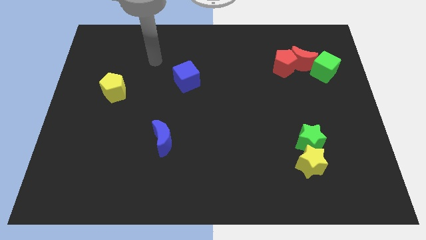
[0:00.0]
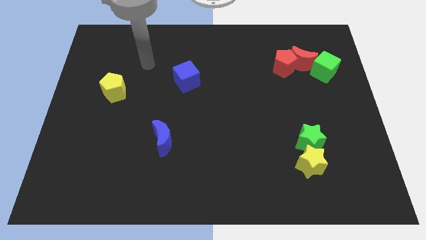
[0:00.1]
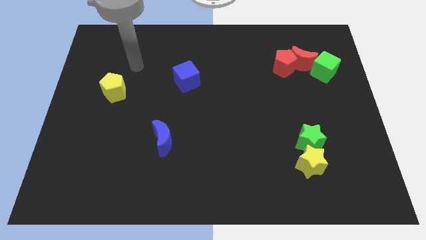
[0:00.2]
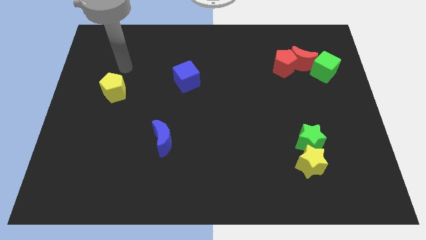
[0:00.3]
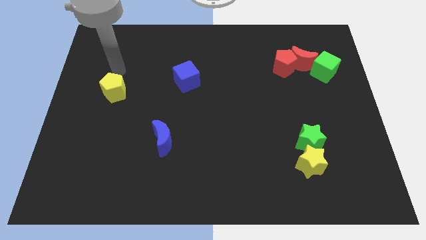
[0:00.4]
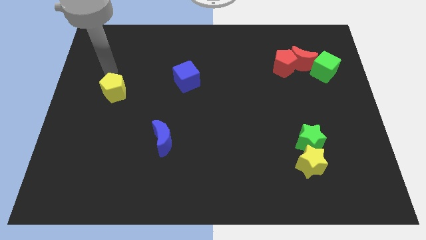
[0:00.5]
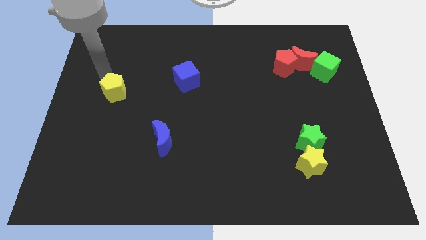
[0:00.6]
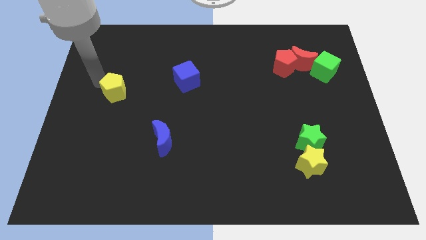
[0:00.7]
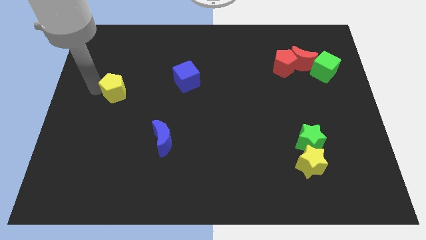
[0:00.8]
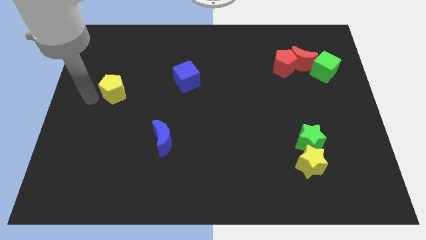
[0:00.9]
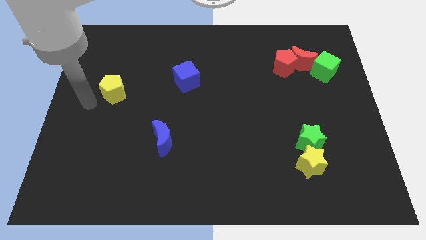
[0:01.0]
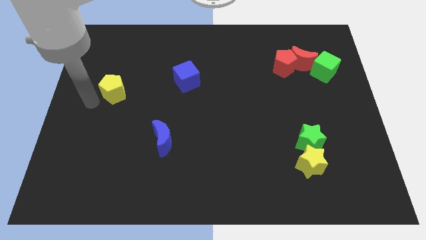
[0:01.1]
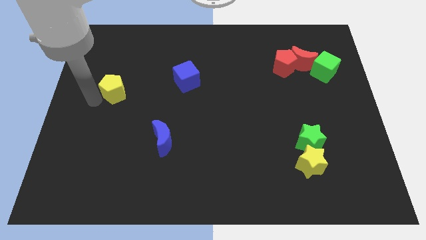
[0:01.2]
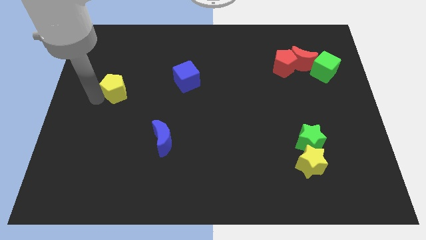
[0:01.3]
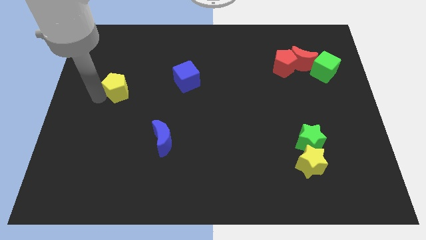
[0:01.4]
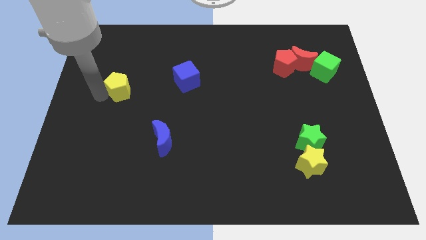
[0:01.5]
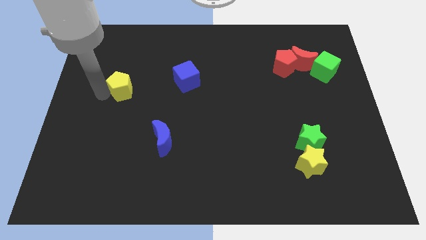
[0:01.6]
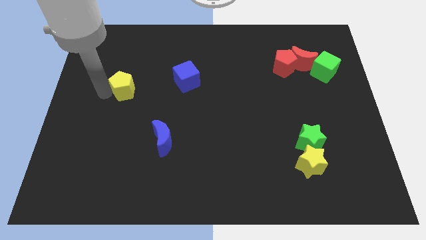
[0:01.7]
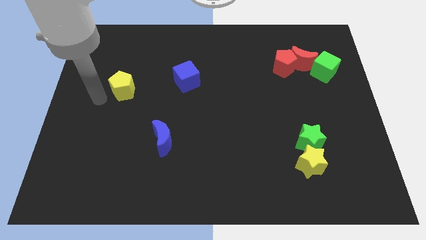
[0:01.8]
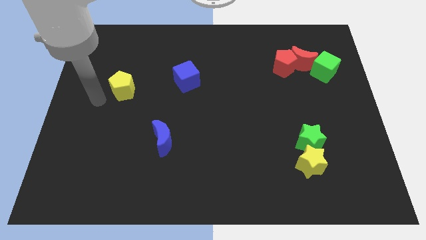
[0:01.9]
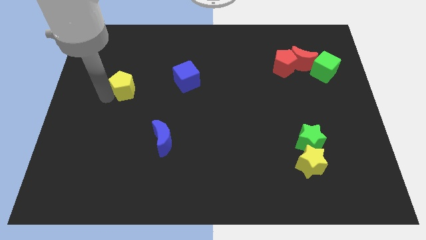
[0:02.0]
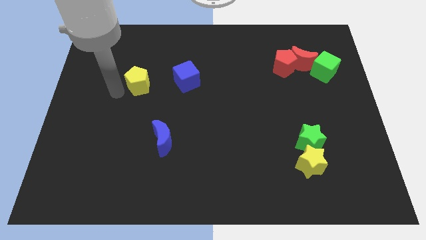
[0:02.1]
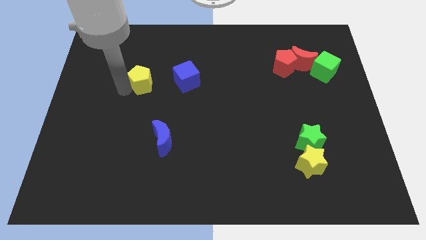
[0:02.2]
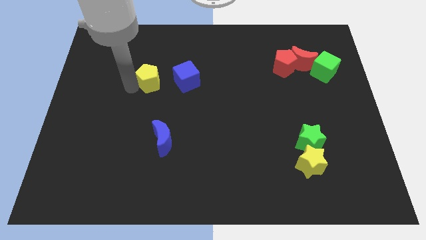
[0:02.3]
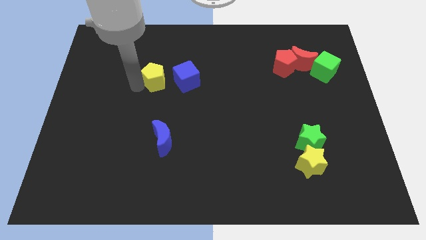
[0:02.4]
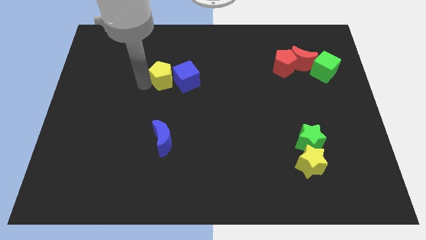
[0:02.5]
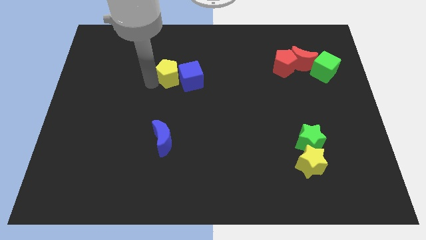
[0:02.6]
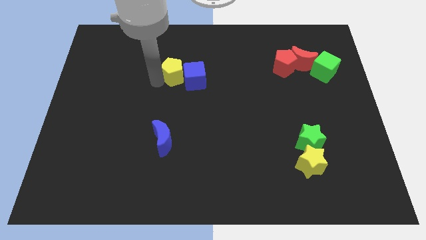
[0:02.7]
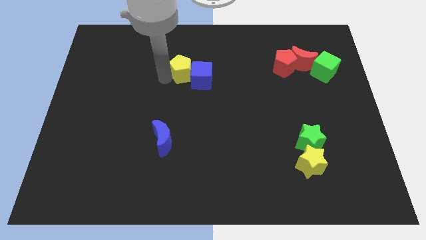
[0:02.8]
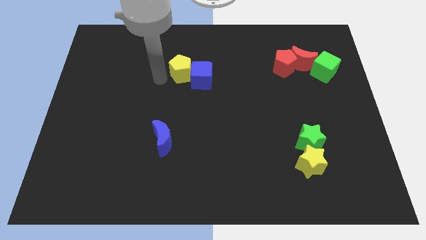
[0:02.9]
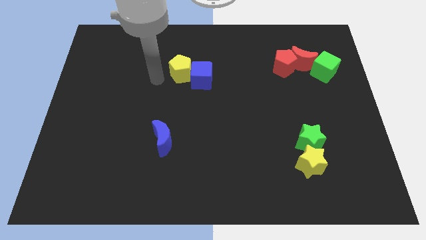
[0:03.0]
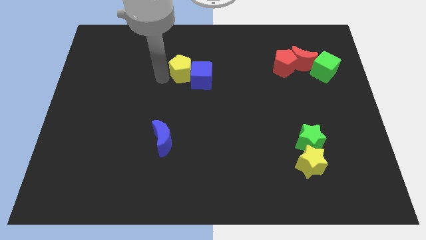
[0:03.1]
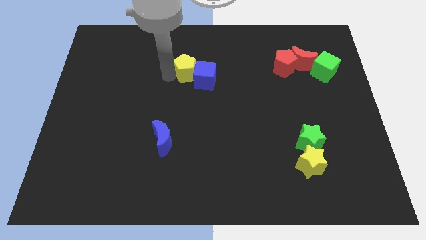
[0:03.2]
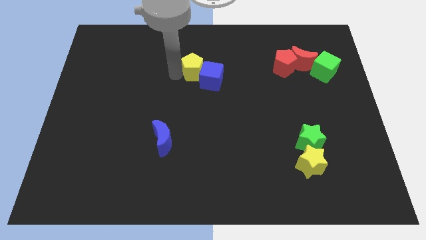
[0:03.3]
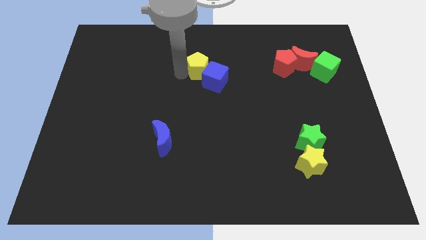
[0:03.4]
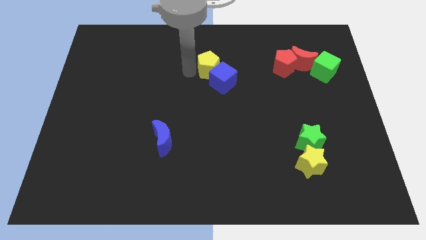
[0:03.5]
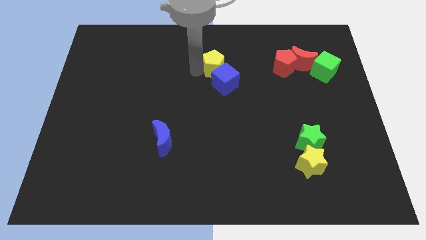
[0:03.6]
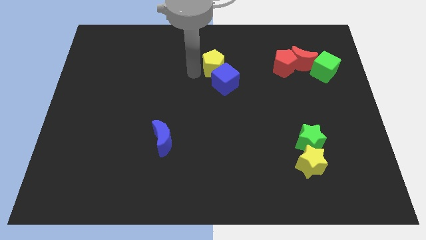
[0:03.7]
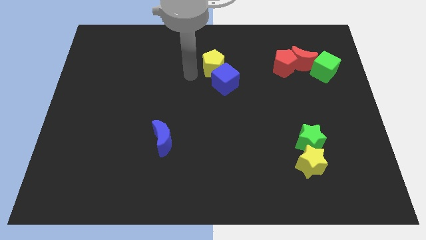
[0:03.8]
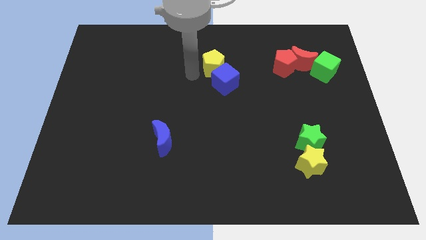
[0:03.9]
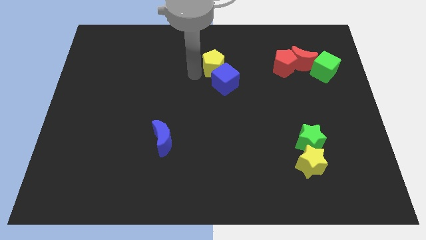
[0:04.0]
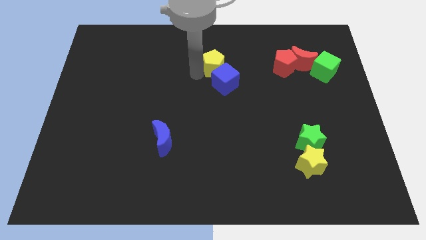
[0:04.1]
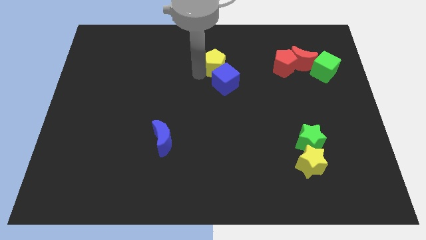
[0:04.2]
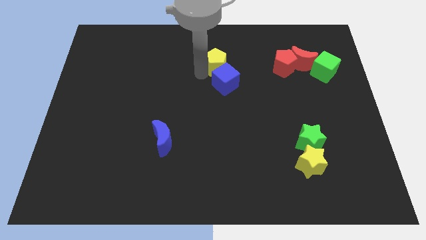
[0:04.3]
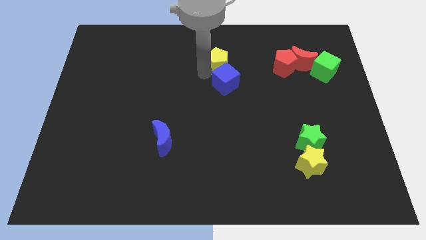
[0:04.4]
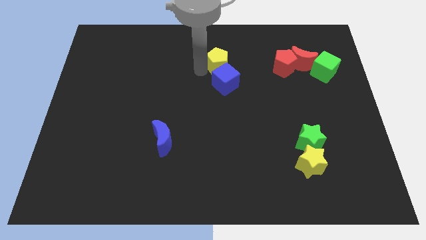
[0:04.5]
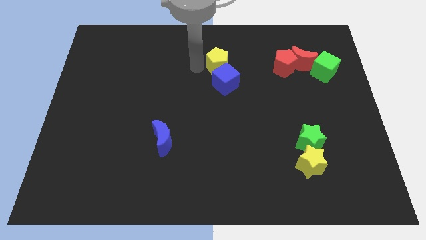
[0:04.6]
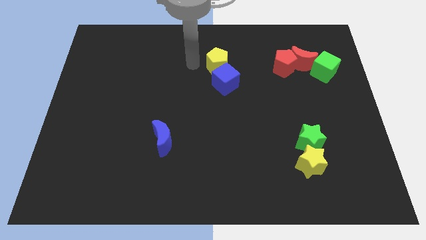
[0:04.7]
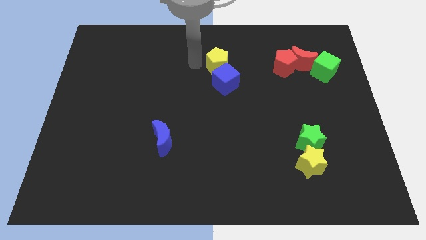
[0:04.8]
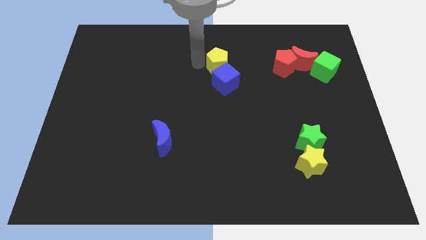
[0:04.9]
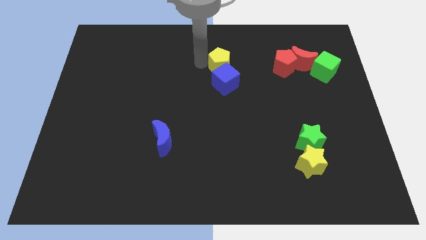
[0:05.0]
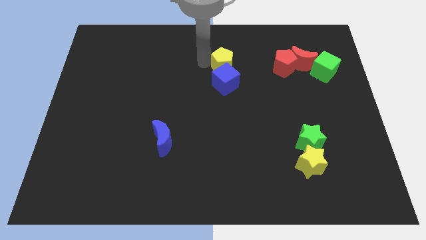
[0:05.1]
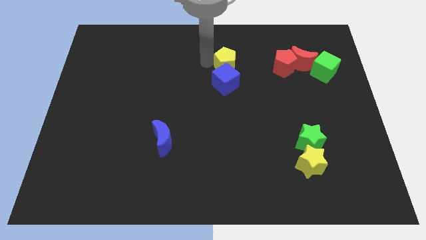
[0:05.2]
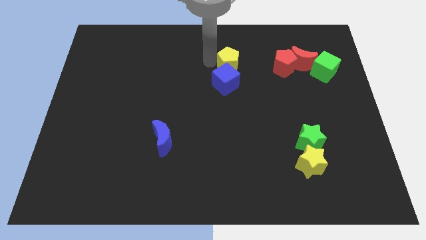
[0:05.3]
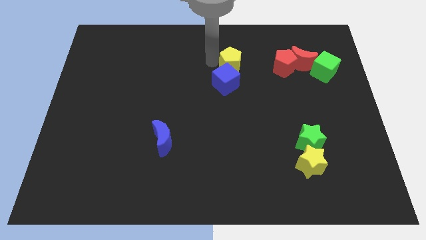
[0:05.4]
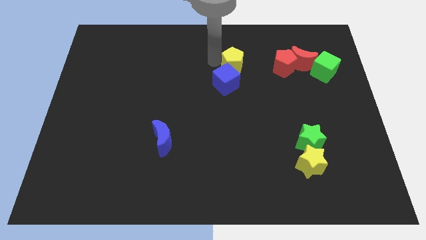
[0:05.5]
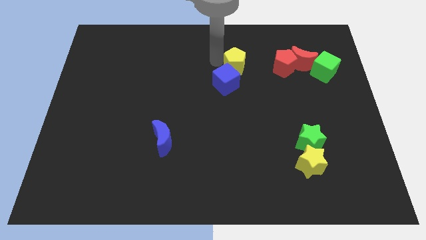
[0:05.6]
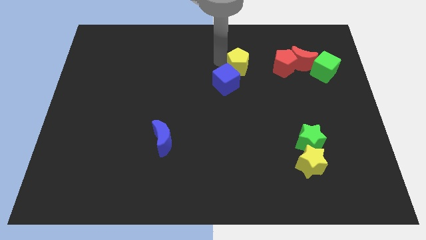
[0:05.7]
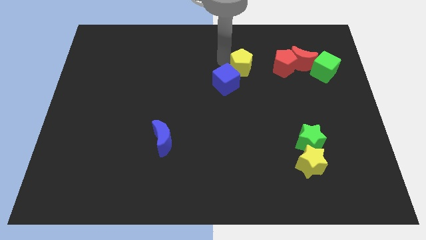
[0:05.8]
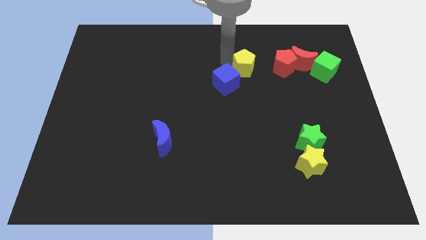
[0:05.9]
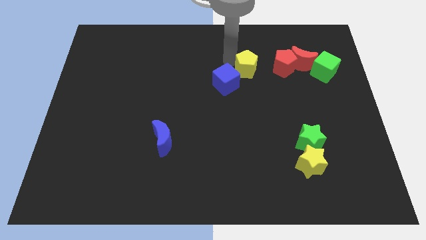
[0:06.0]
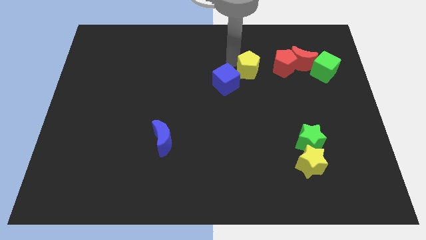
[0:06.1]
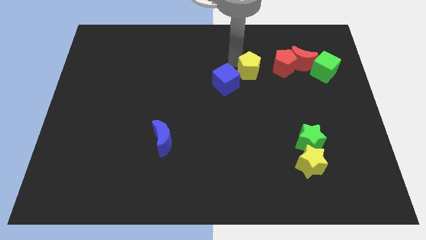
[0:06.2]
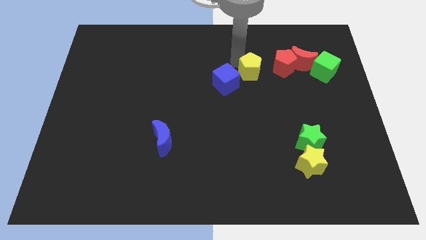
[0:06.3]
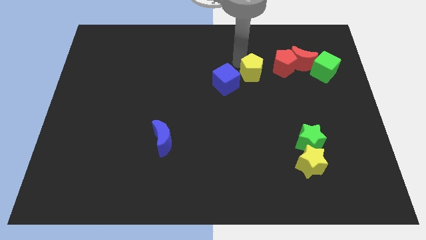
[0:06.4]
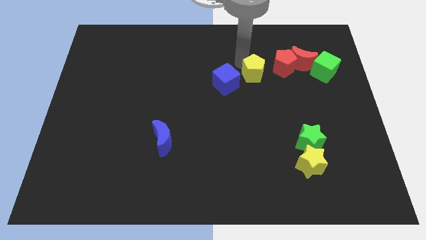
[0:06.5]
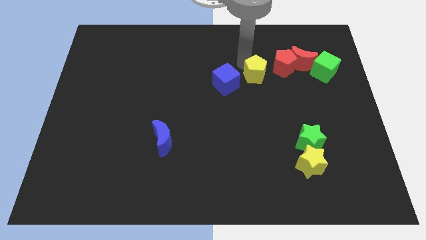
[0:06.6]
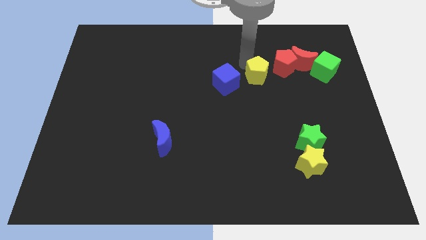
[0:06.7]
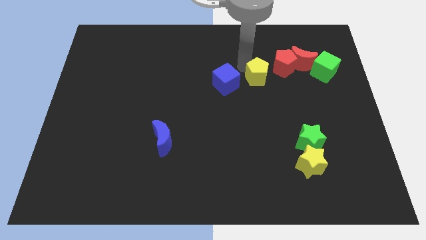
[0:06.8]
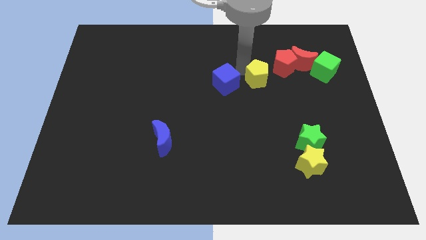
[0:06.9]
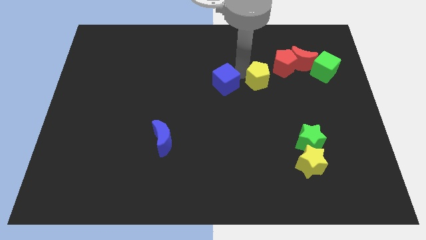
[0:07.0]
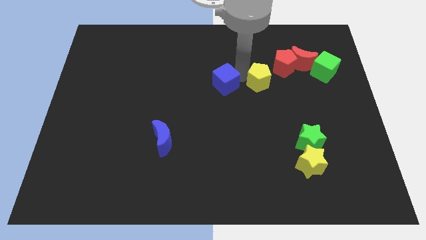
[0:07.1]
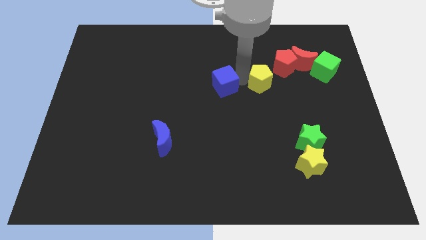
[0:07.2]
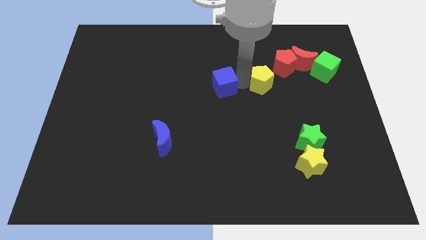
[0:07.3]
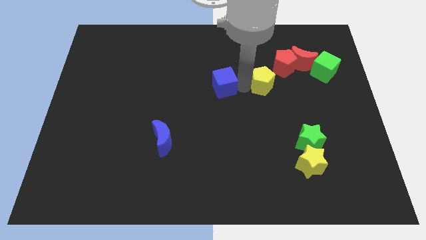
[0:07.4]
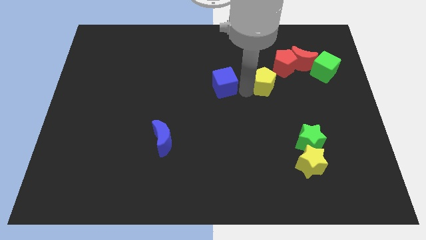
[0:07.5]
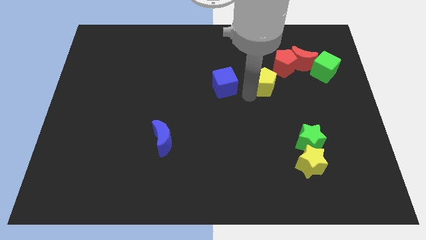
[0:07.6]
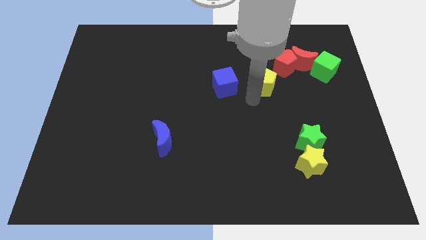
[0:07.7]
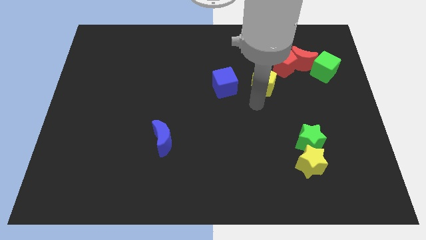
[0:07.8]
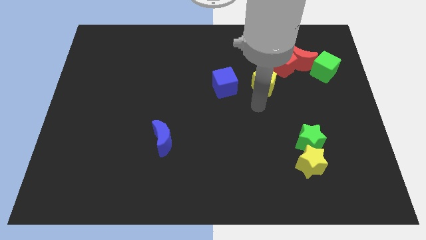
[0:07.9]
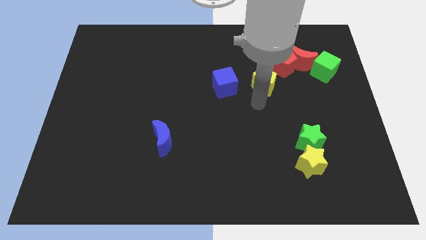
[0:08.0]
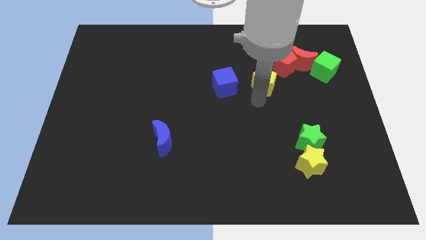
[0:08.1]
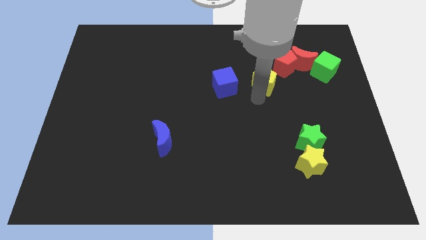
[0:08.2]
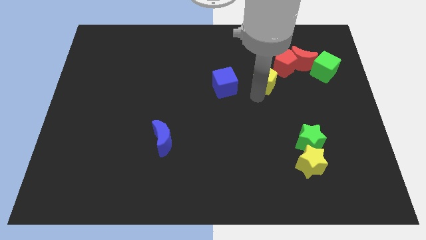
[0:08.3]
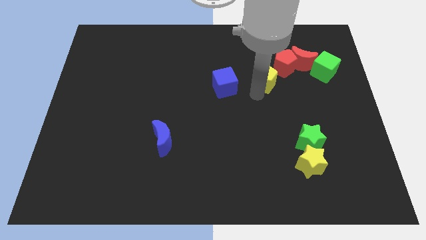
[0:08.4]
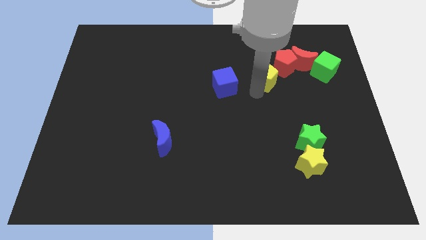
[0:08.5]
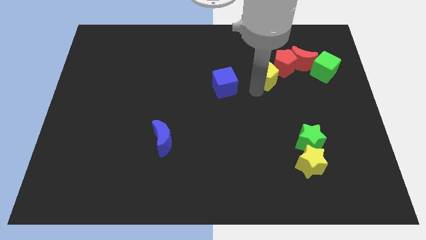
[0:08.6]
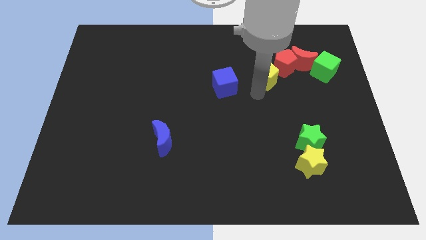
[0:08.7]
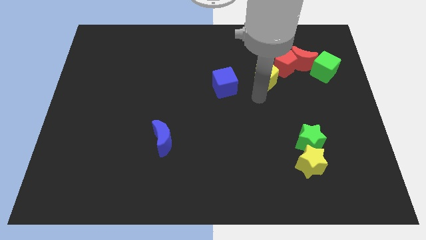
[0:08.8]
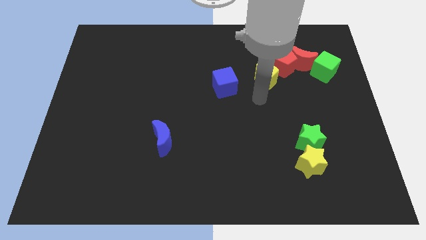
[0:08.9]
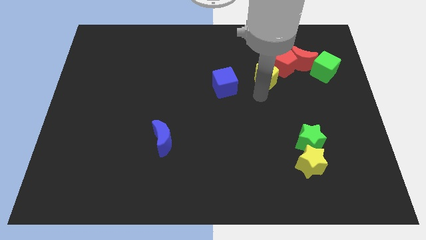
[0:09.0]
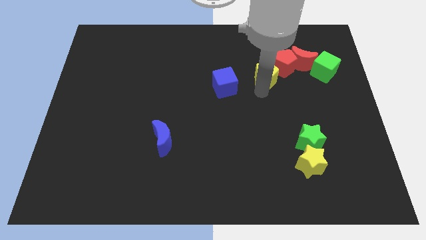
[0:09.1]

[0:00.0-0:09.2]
push the yellow pentagon to the left of the green cube
